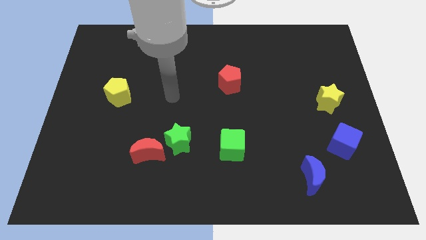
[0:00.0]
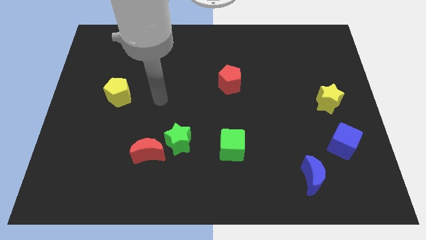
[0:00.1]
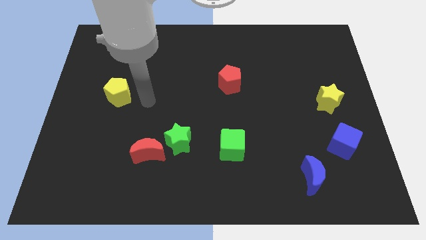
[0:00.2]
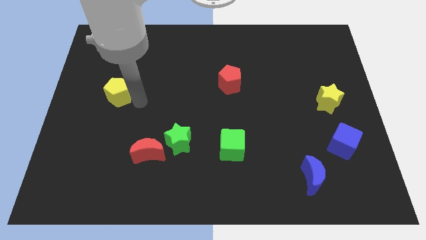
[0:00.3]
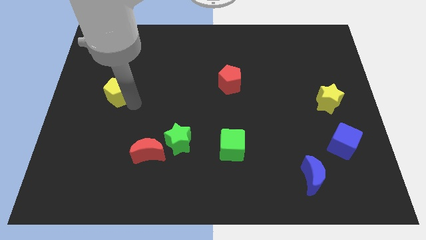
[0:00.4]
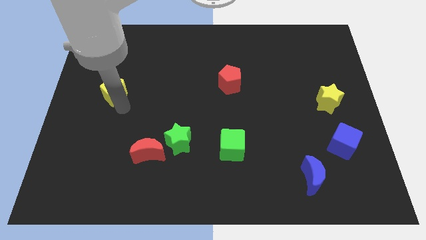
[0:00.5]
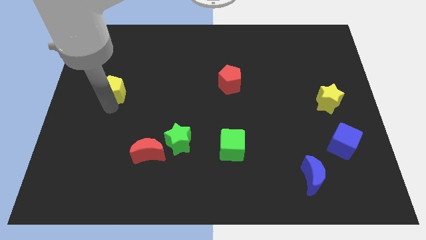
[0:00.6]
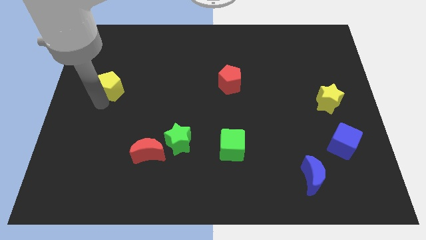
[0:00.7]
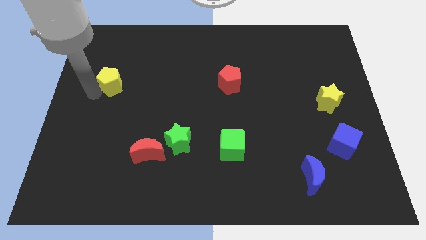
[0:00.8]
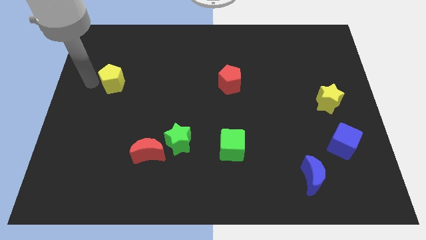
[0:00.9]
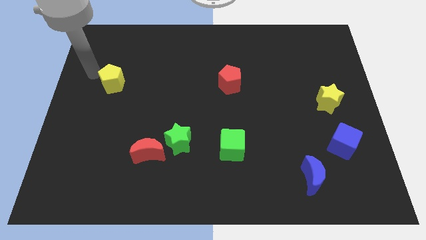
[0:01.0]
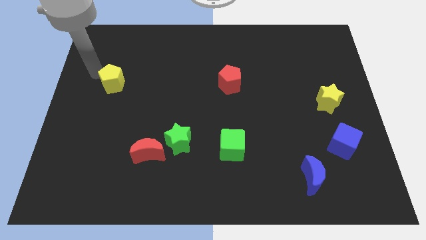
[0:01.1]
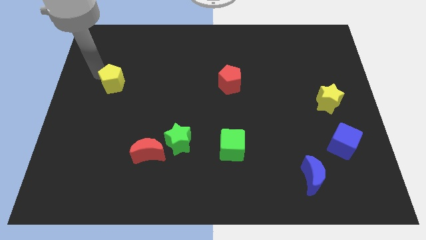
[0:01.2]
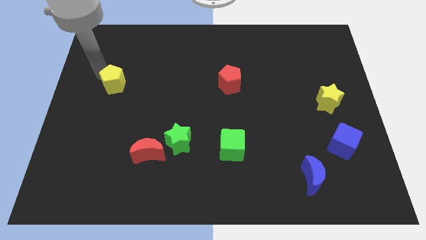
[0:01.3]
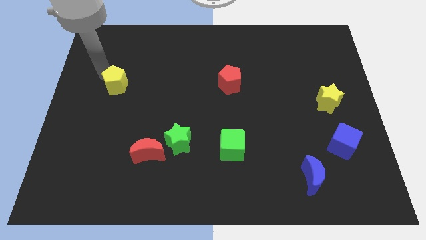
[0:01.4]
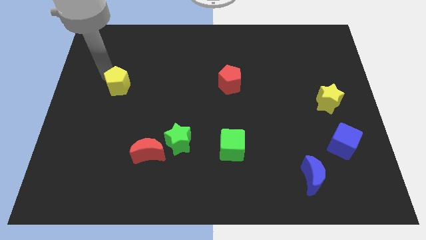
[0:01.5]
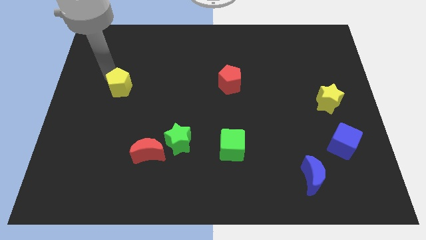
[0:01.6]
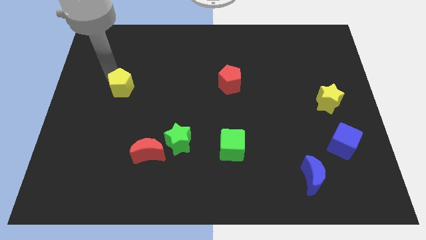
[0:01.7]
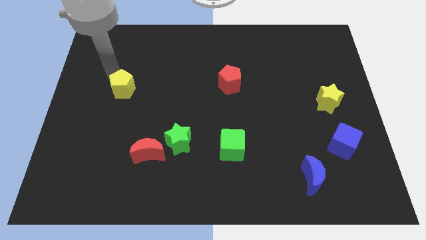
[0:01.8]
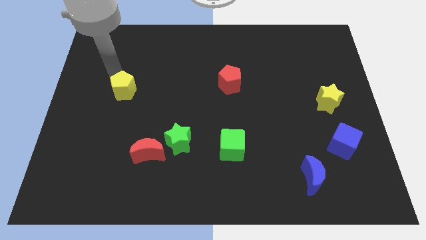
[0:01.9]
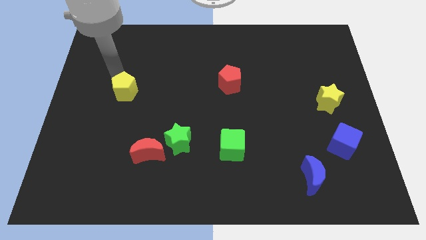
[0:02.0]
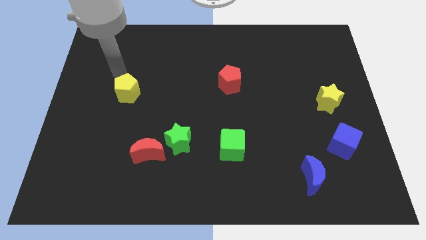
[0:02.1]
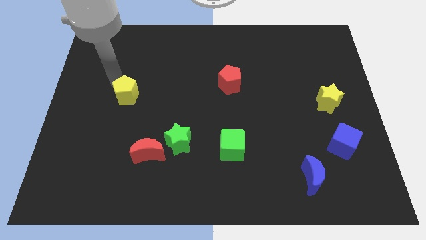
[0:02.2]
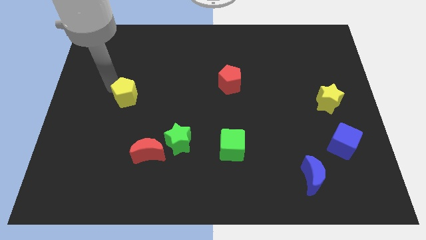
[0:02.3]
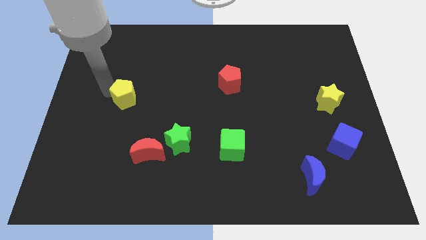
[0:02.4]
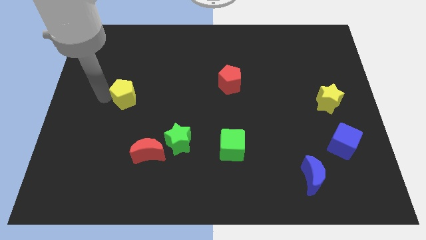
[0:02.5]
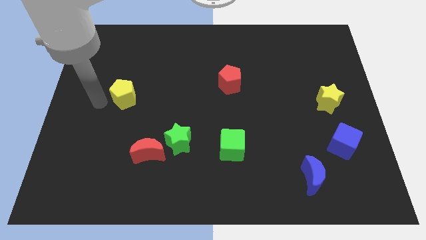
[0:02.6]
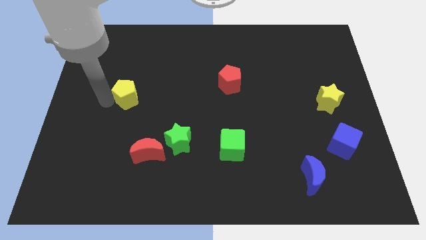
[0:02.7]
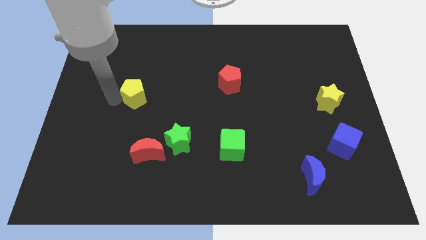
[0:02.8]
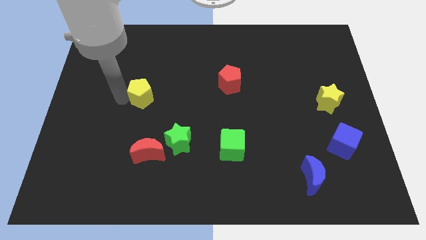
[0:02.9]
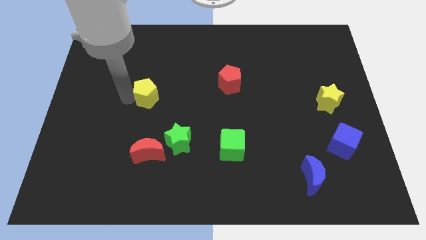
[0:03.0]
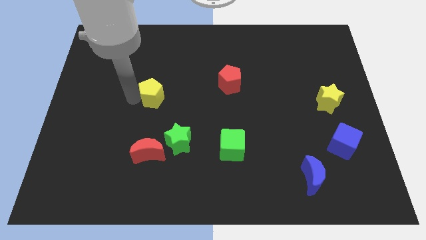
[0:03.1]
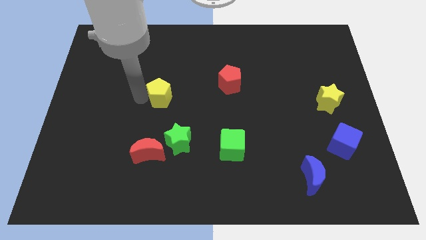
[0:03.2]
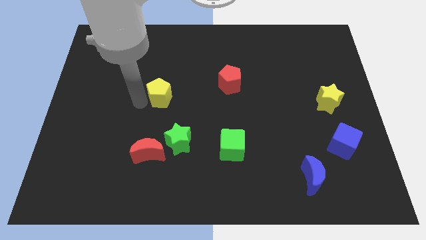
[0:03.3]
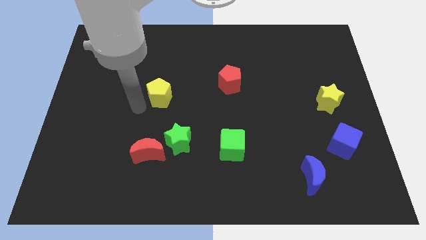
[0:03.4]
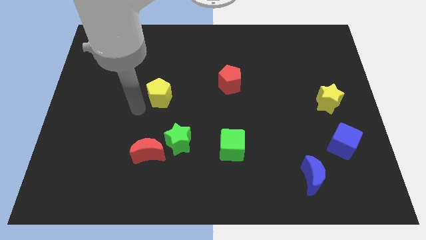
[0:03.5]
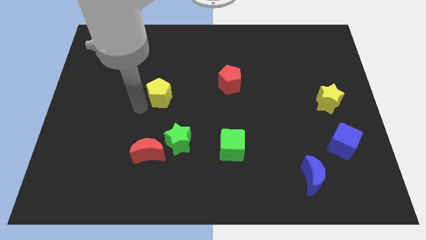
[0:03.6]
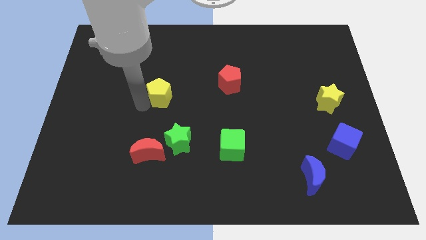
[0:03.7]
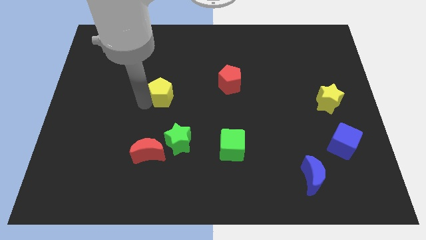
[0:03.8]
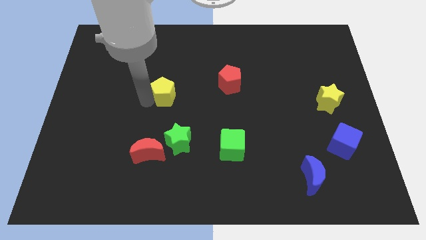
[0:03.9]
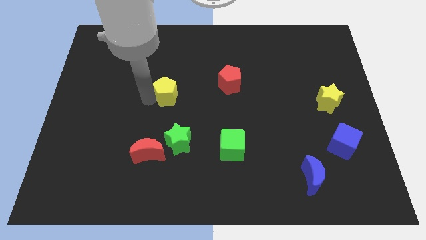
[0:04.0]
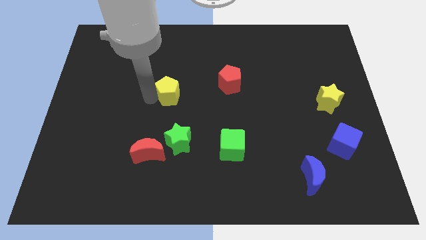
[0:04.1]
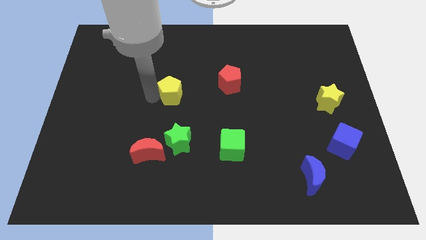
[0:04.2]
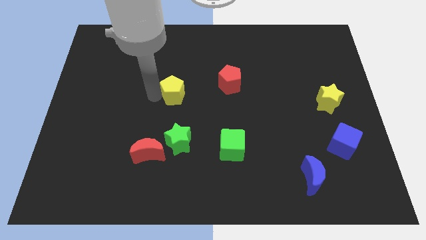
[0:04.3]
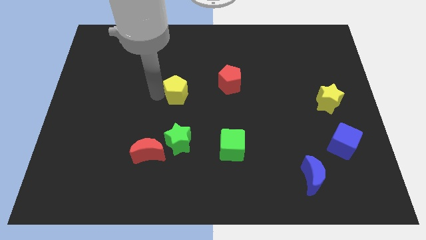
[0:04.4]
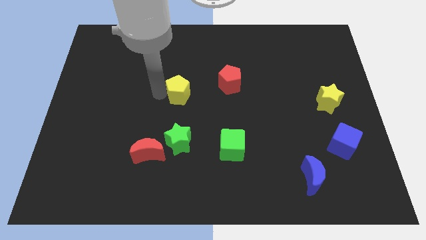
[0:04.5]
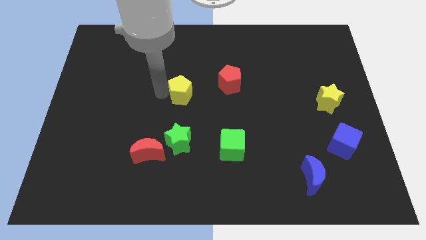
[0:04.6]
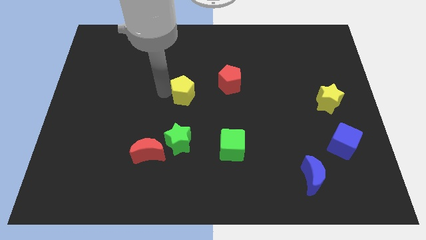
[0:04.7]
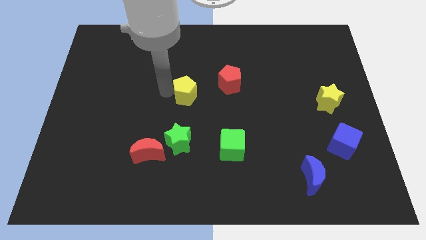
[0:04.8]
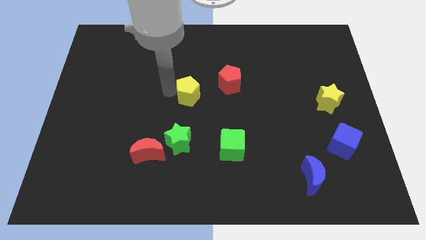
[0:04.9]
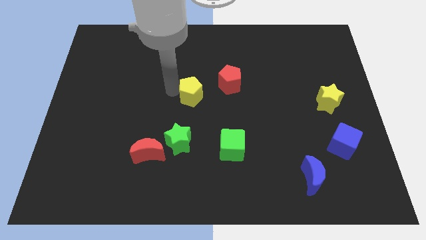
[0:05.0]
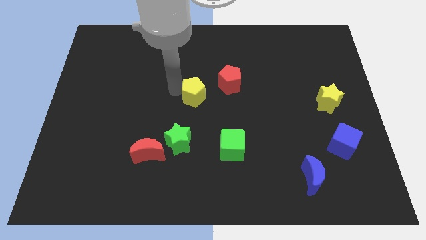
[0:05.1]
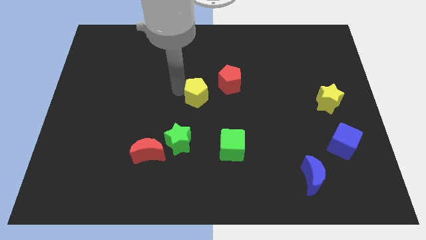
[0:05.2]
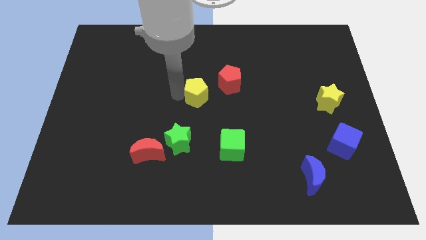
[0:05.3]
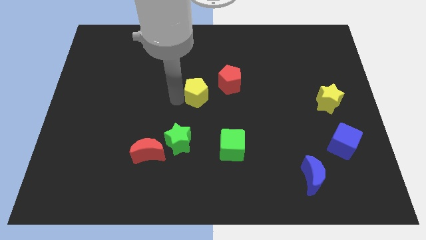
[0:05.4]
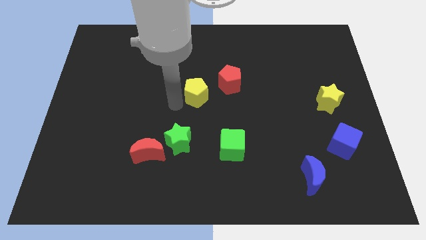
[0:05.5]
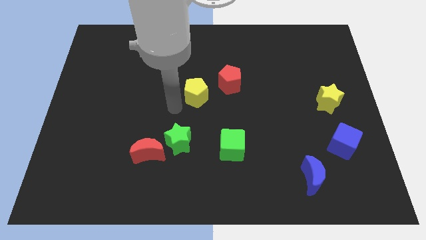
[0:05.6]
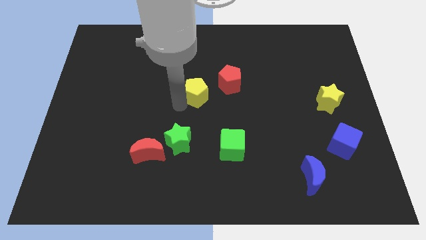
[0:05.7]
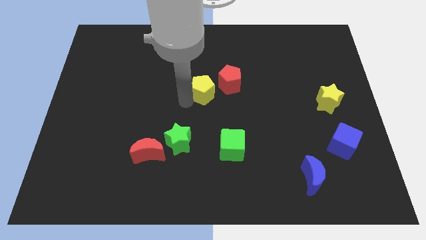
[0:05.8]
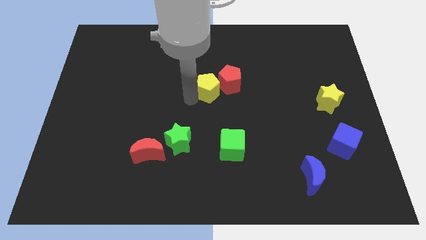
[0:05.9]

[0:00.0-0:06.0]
move the yellow pentagon towards the red pentagon

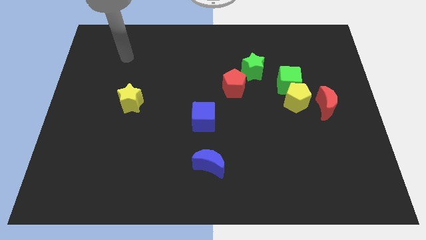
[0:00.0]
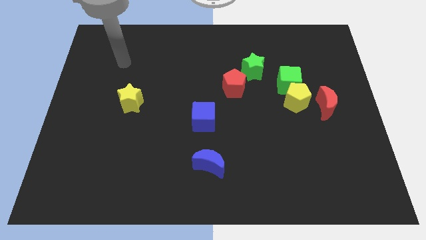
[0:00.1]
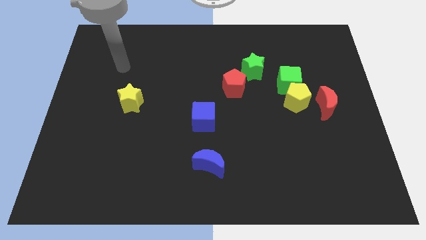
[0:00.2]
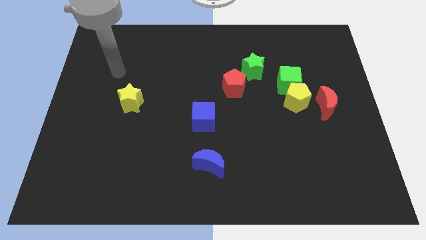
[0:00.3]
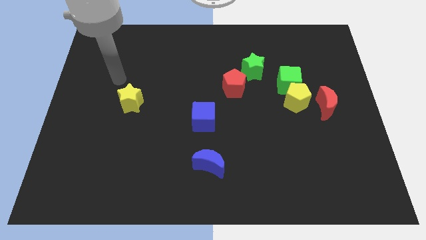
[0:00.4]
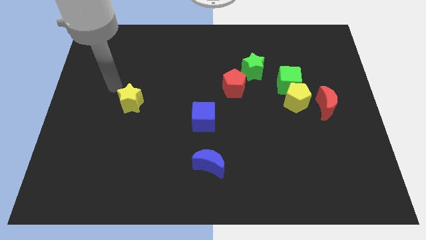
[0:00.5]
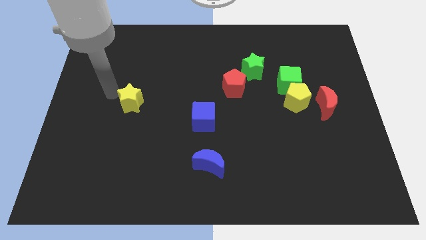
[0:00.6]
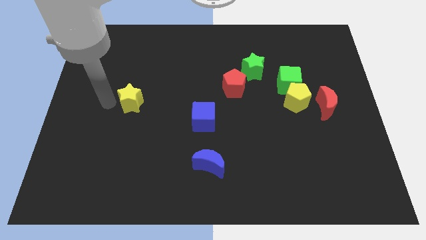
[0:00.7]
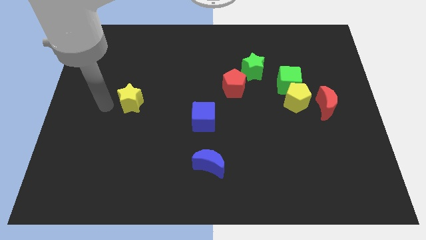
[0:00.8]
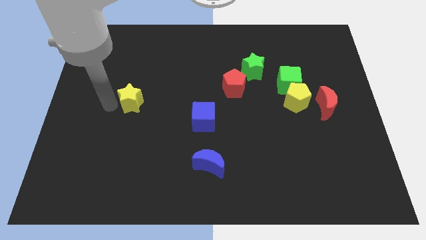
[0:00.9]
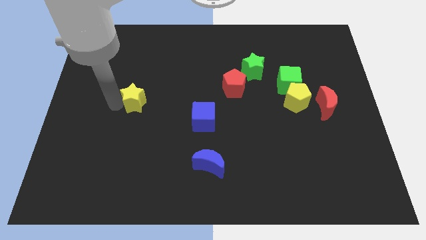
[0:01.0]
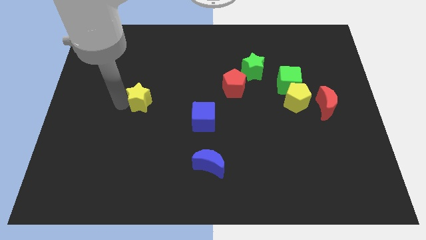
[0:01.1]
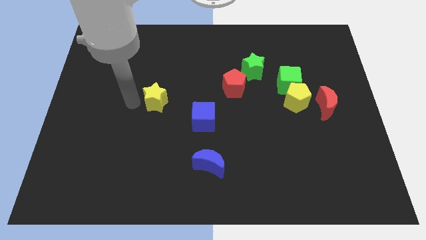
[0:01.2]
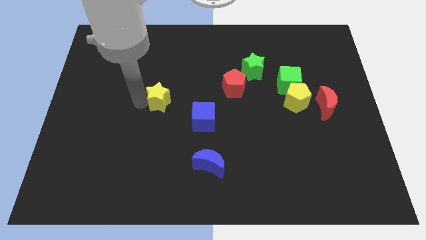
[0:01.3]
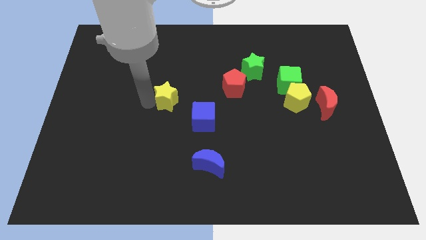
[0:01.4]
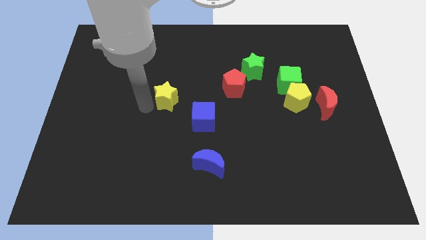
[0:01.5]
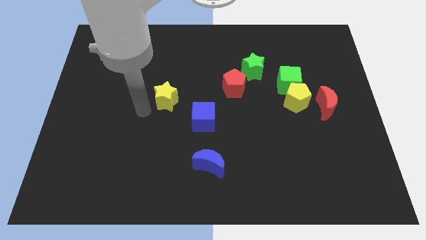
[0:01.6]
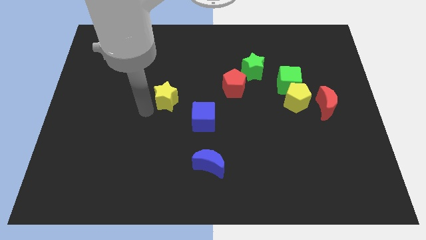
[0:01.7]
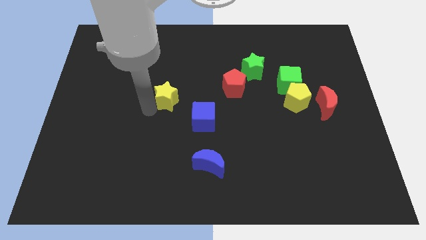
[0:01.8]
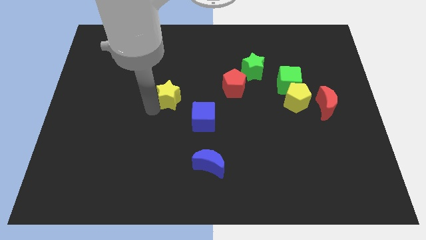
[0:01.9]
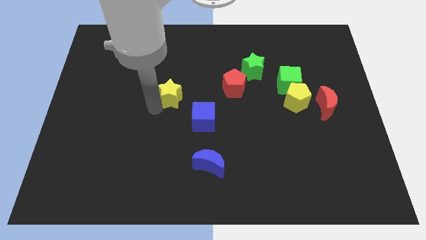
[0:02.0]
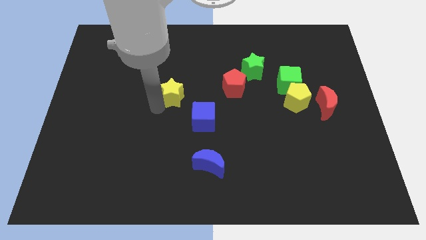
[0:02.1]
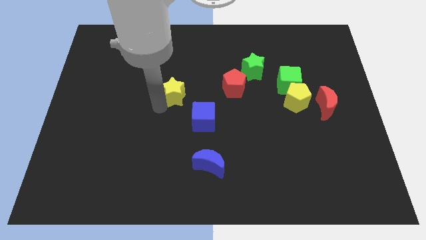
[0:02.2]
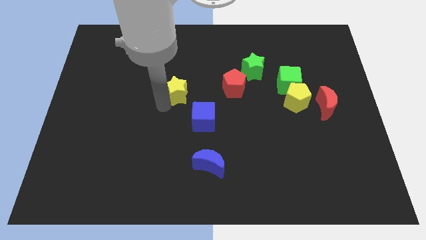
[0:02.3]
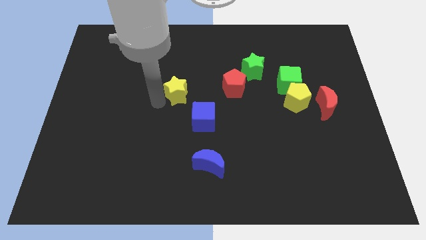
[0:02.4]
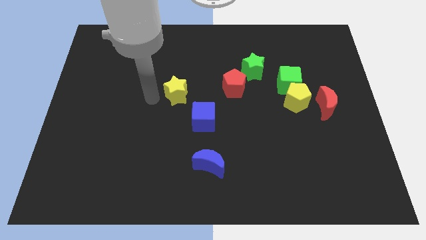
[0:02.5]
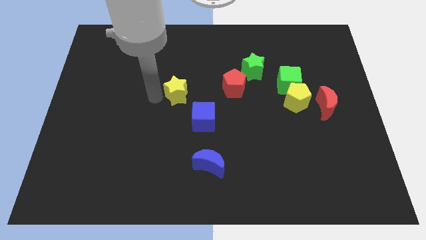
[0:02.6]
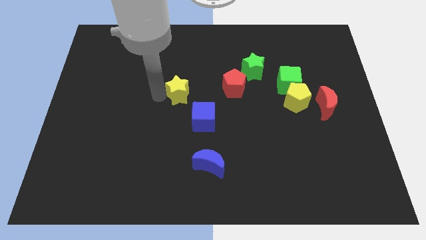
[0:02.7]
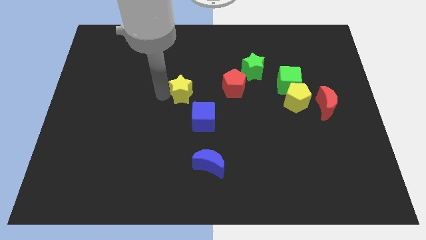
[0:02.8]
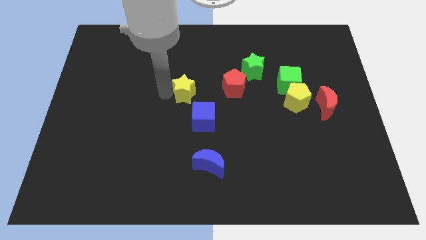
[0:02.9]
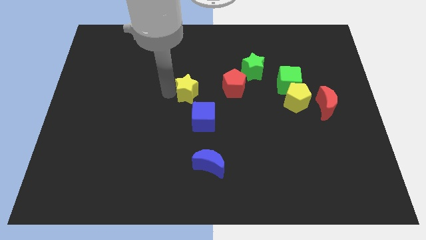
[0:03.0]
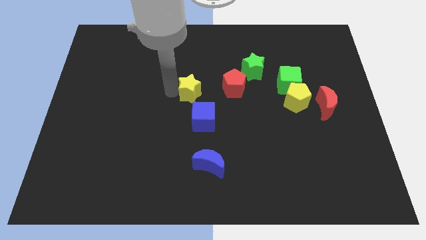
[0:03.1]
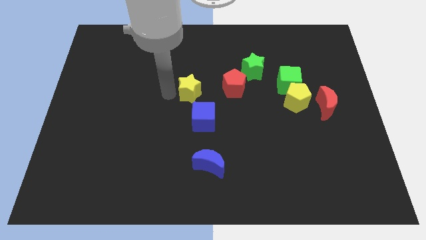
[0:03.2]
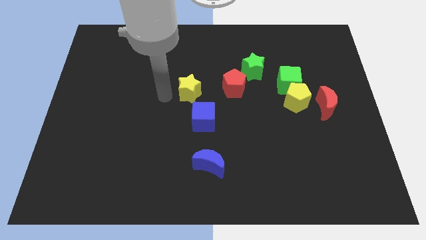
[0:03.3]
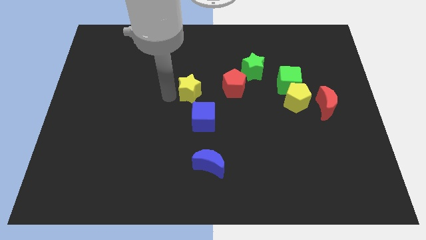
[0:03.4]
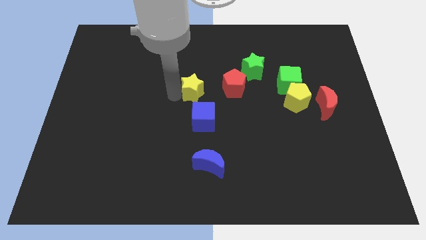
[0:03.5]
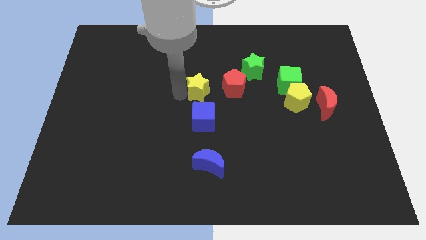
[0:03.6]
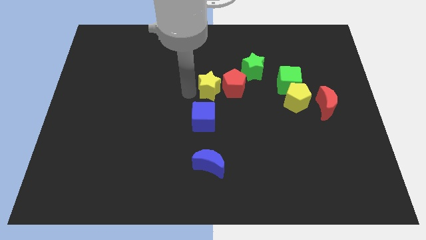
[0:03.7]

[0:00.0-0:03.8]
put the yellow star next to the red pentagon
